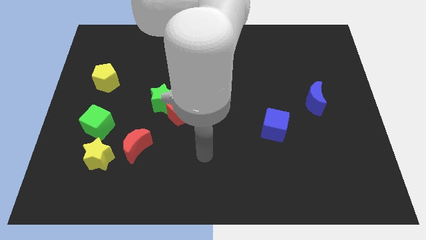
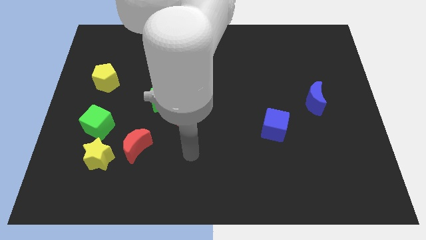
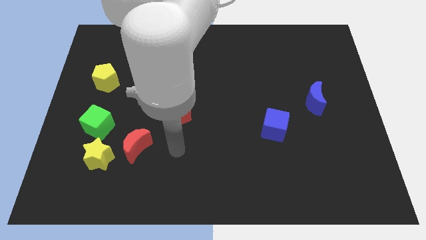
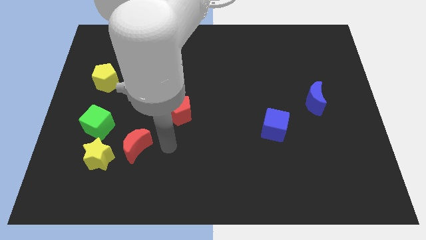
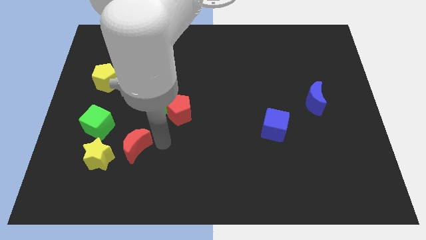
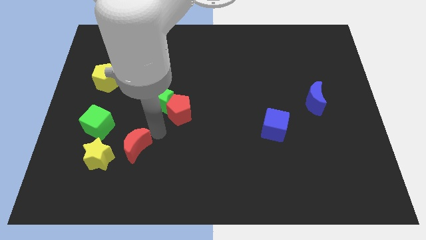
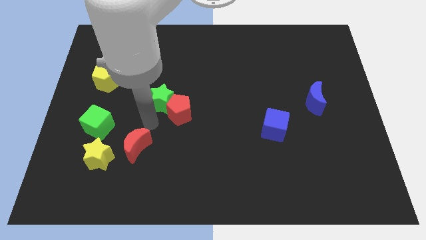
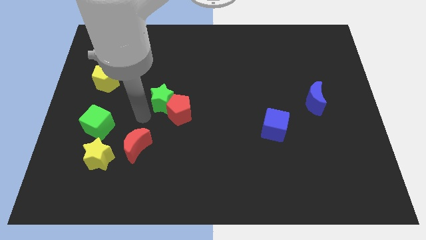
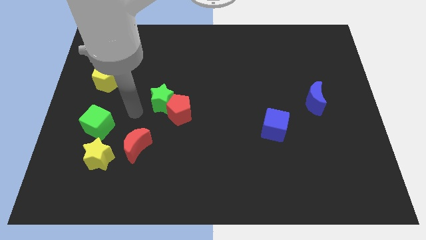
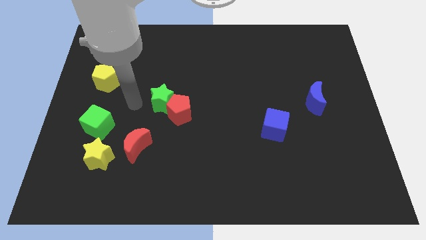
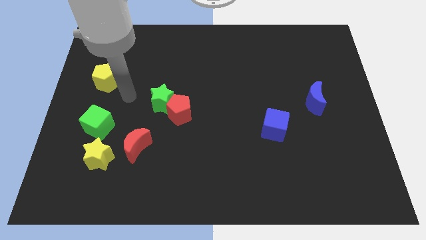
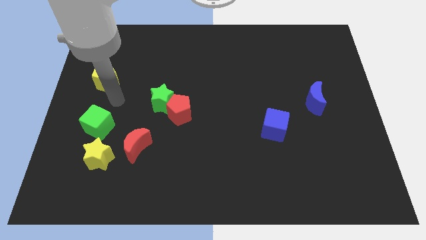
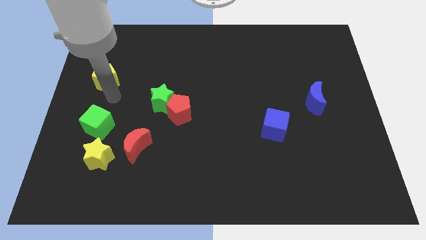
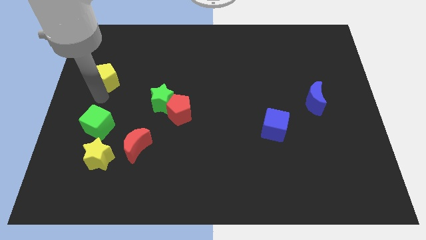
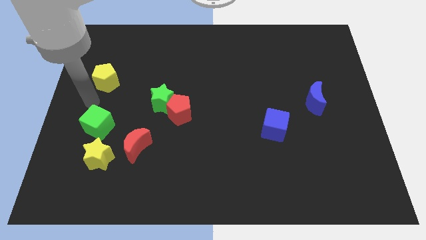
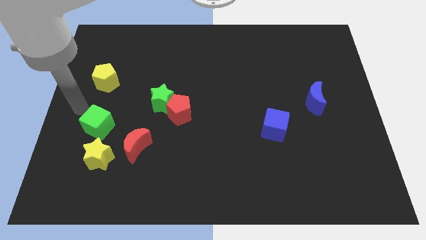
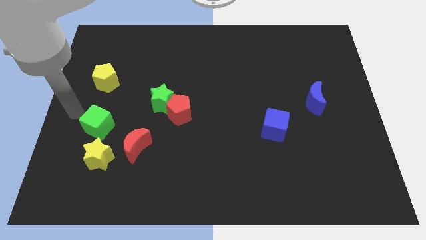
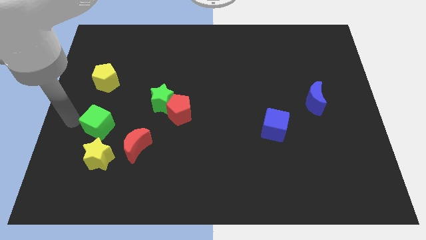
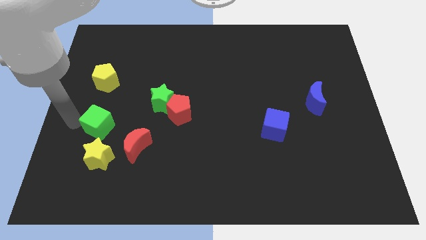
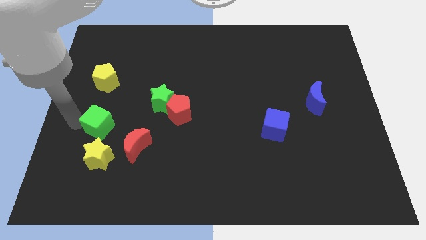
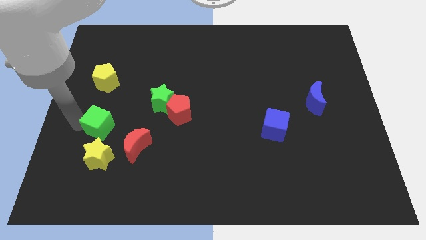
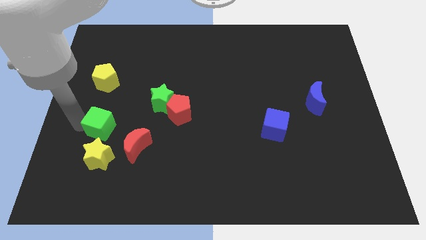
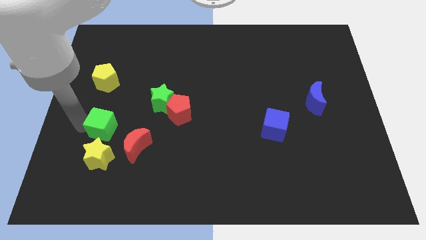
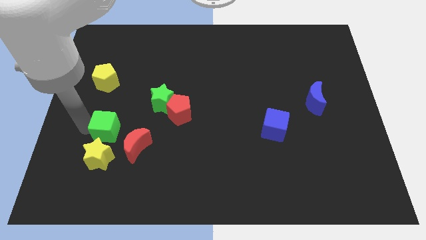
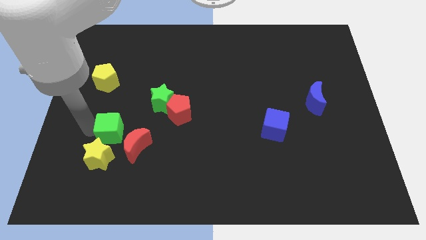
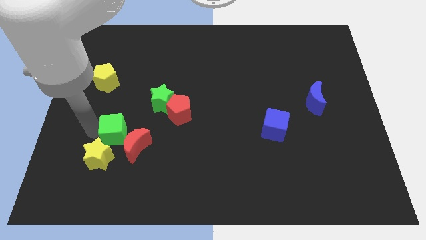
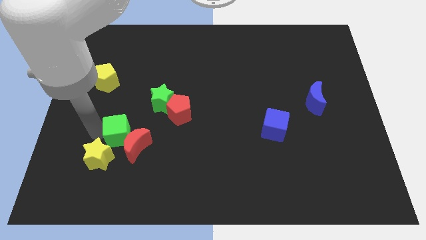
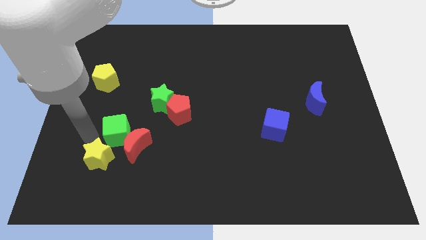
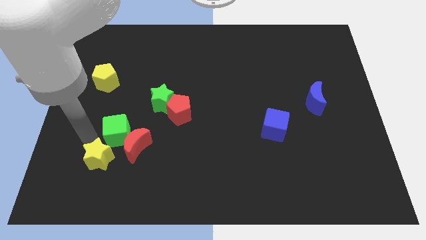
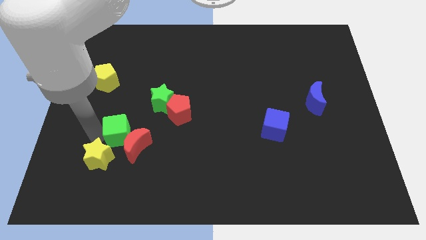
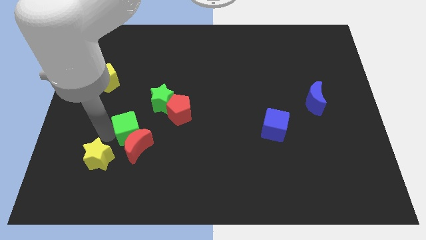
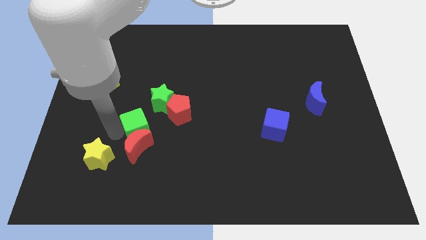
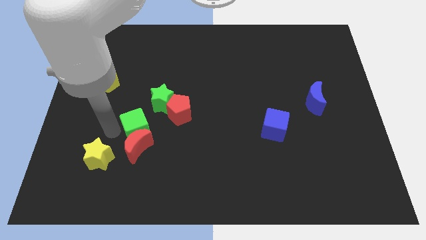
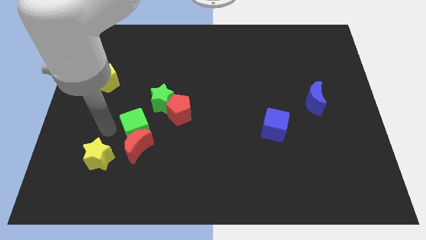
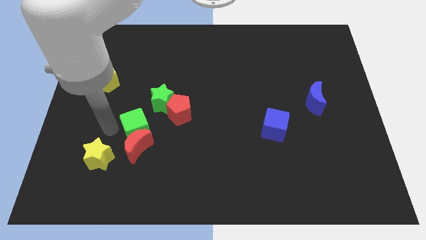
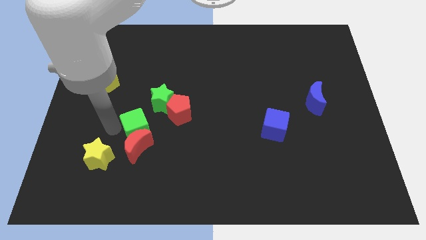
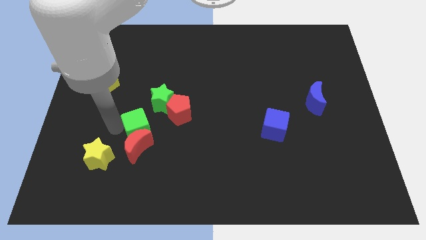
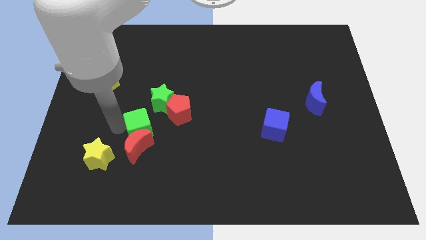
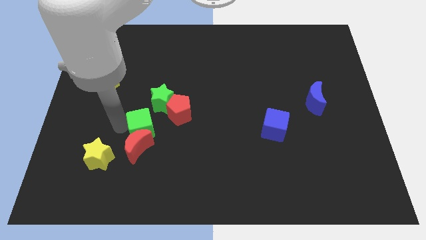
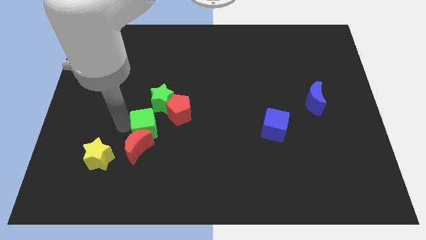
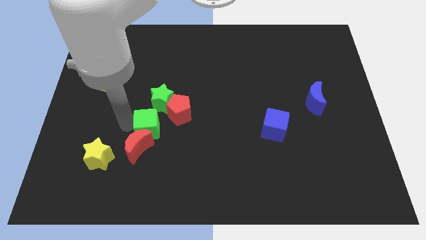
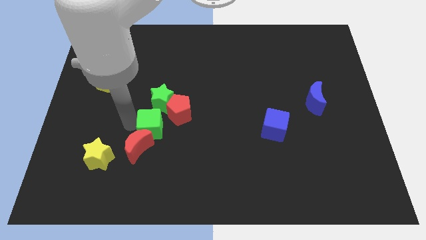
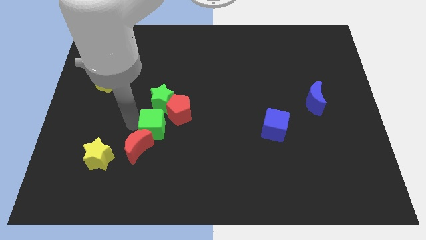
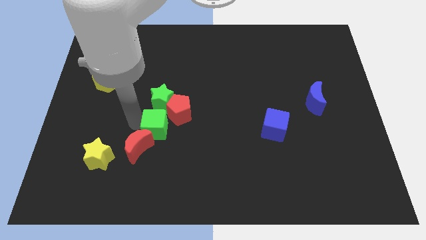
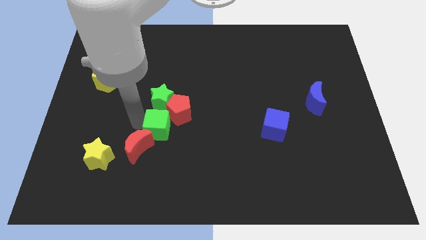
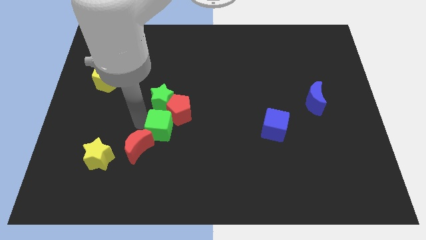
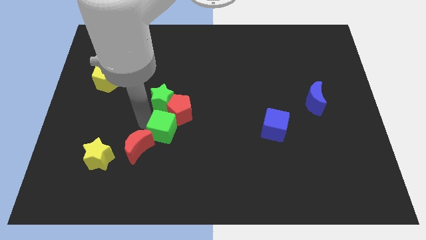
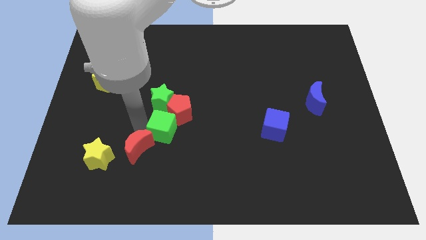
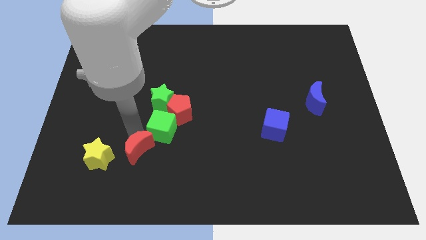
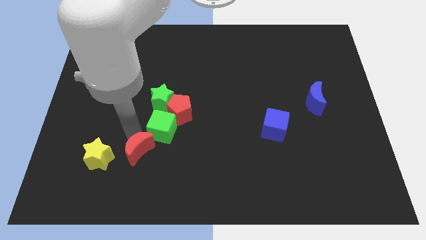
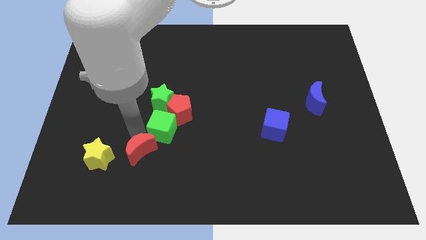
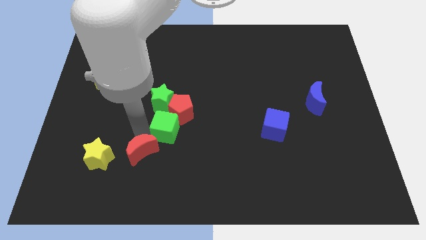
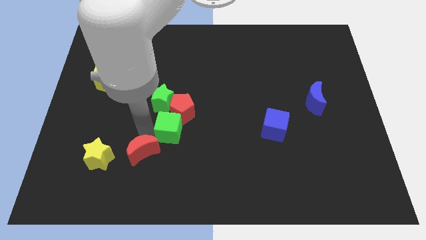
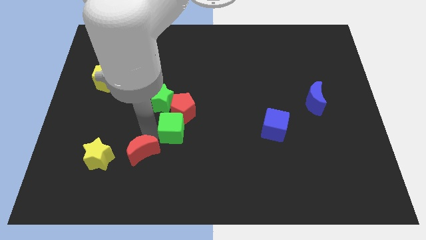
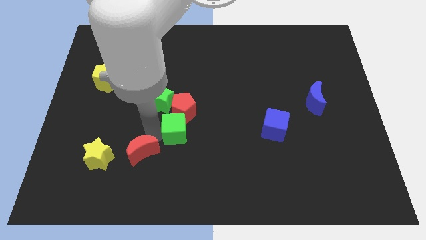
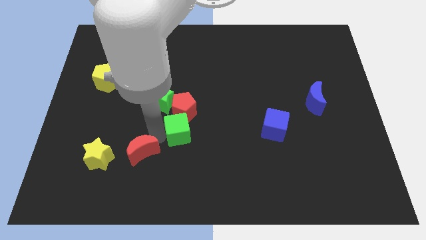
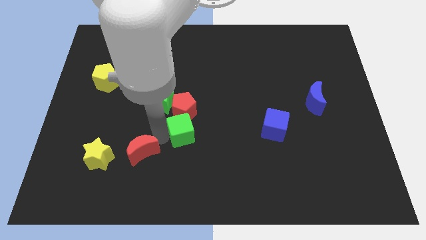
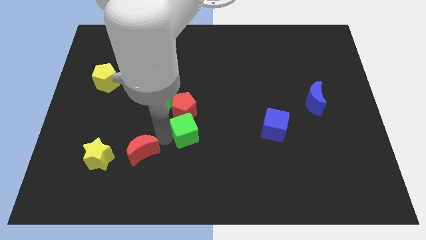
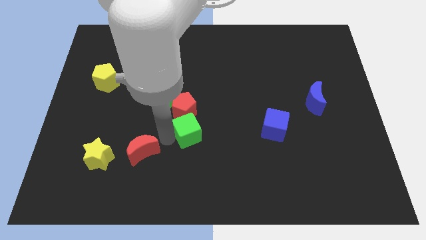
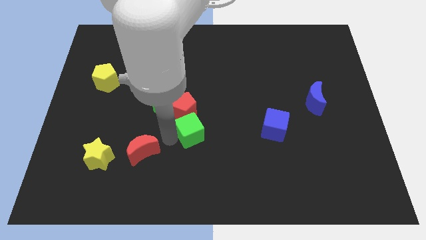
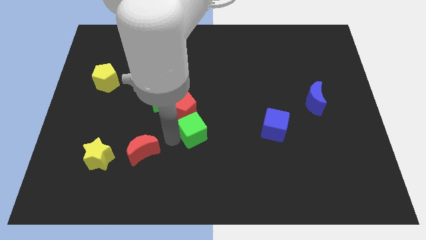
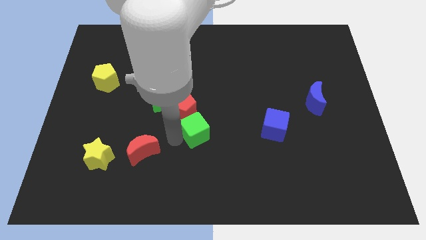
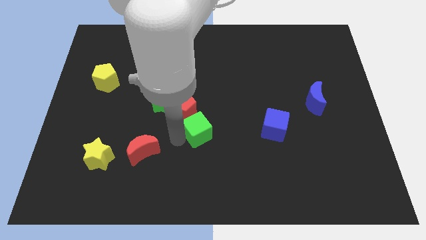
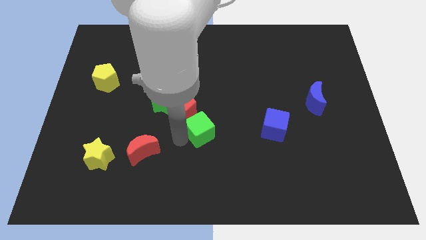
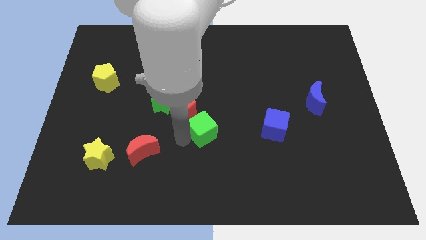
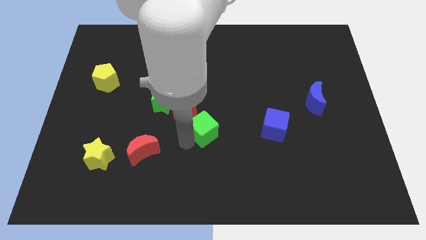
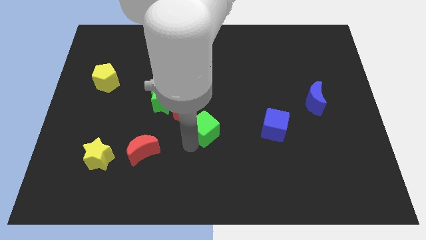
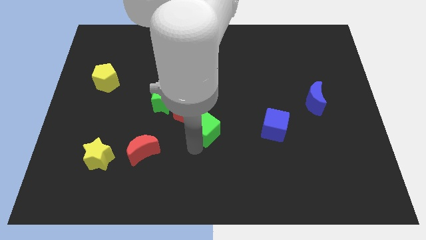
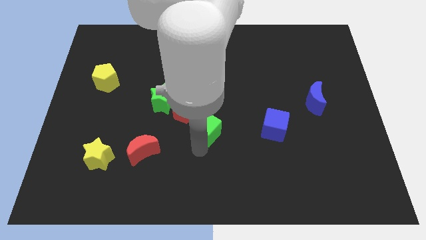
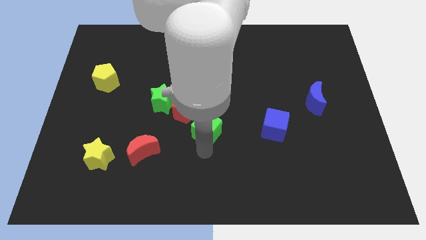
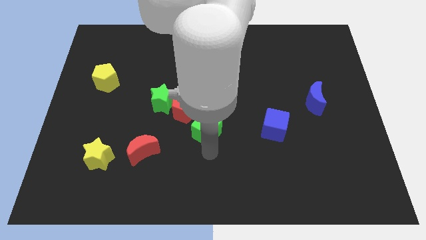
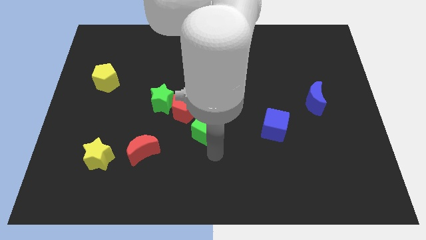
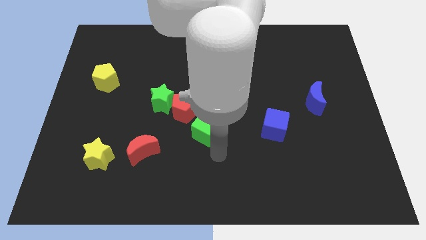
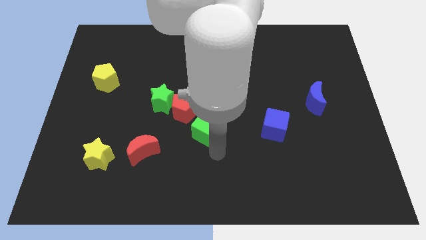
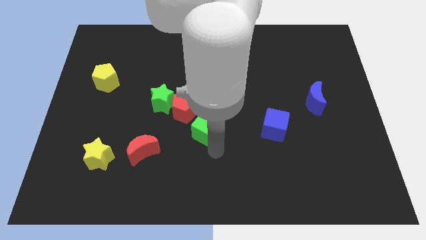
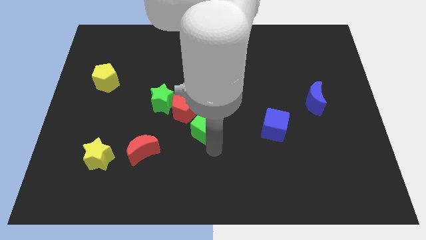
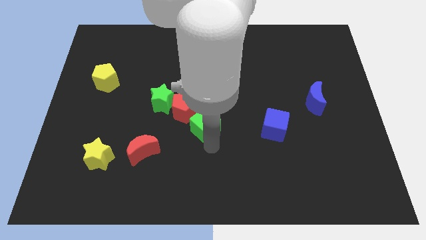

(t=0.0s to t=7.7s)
push the green cube to the right of the red pentagon
